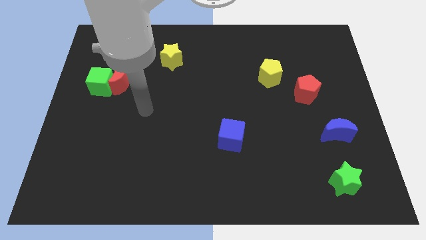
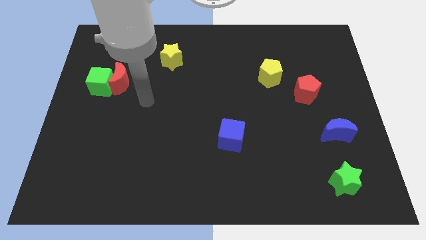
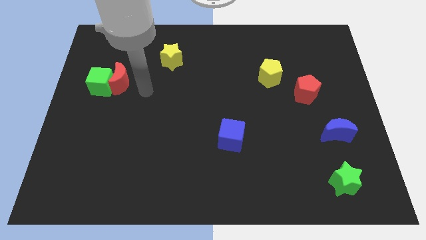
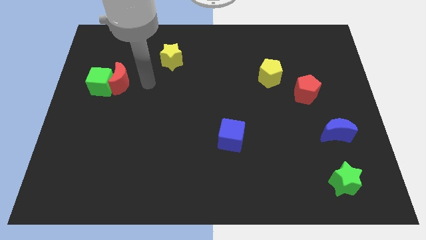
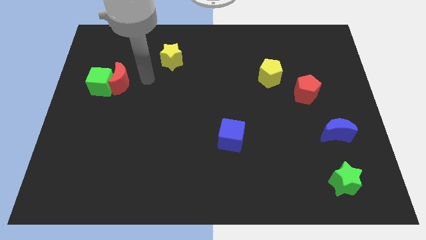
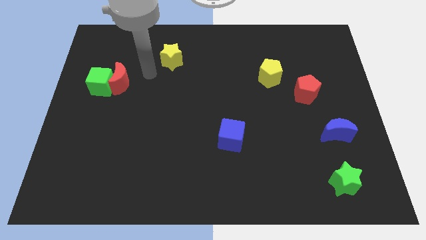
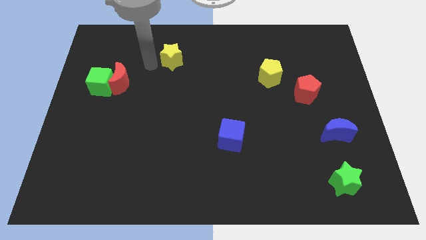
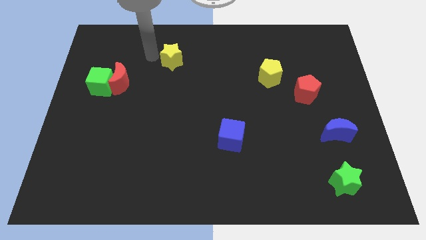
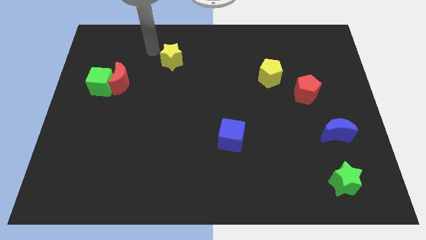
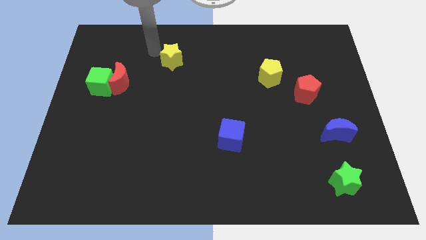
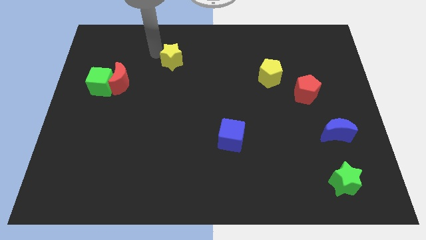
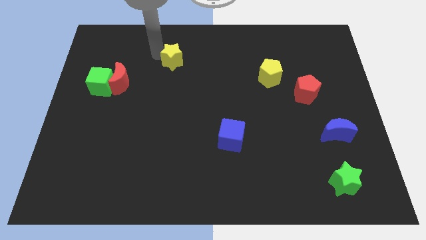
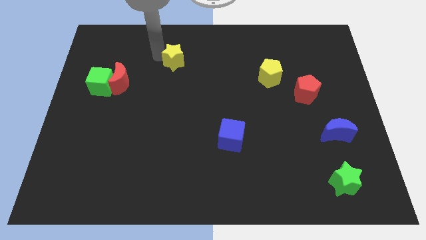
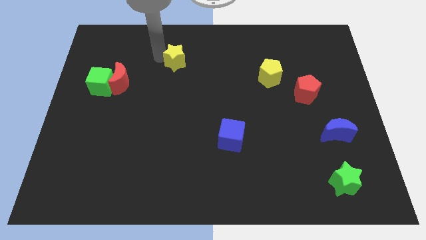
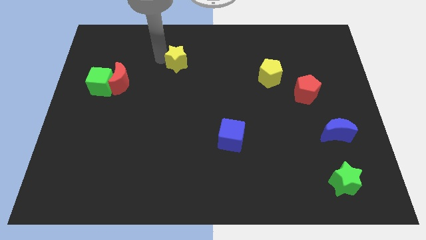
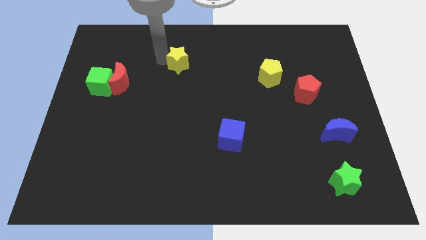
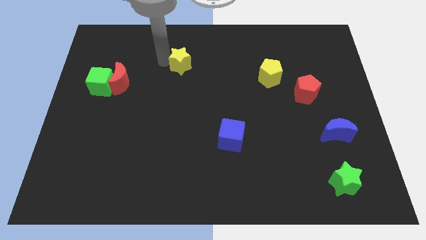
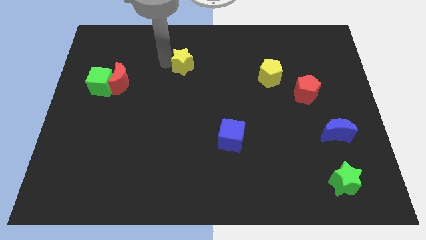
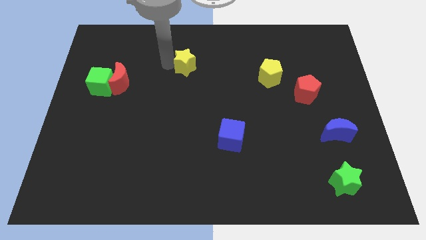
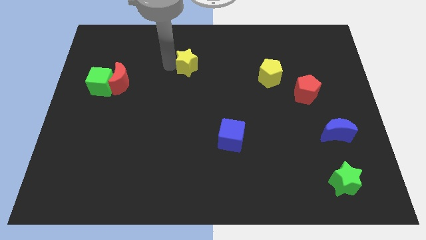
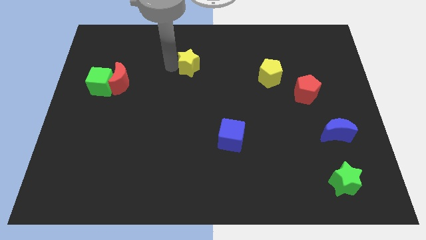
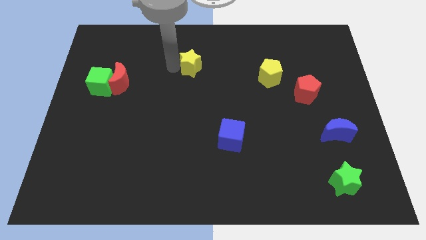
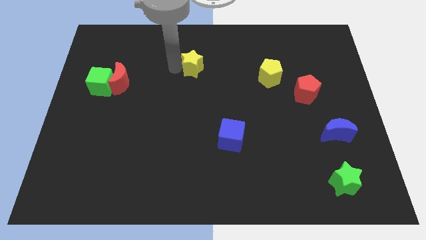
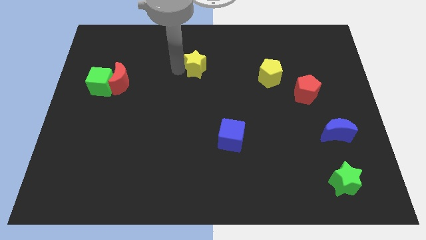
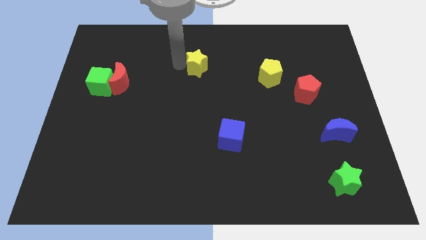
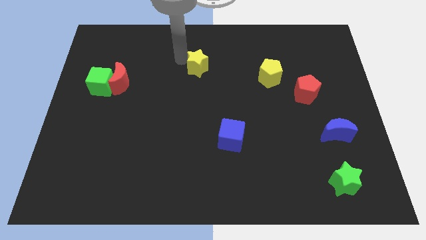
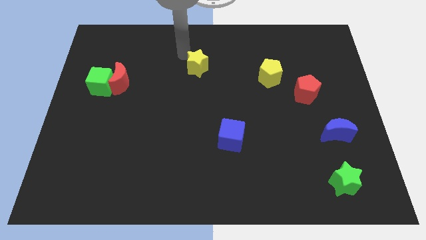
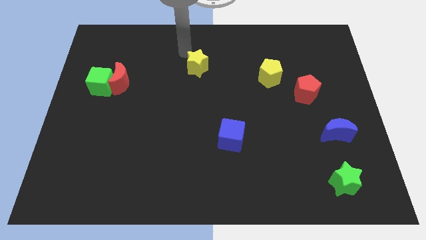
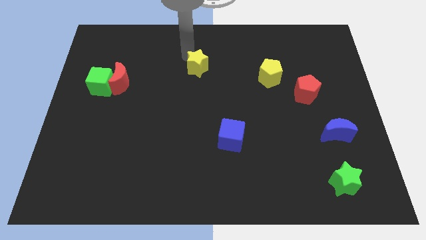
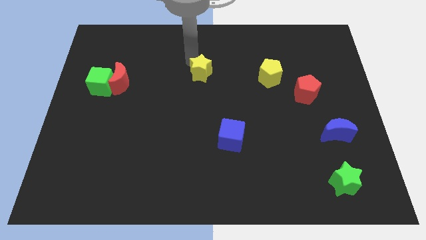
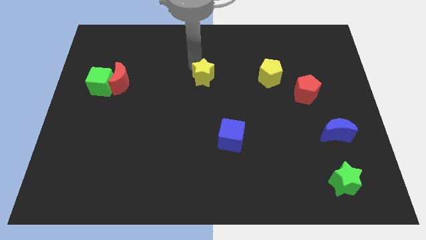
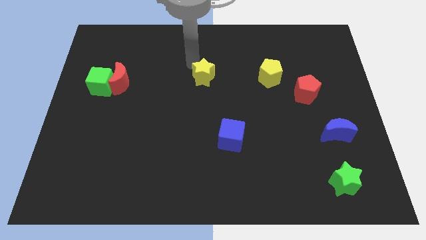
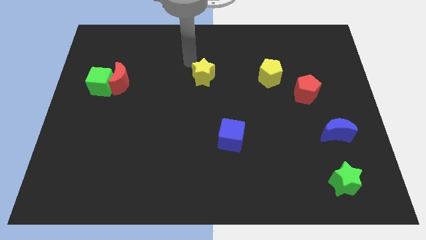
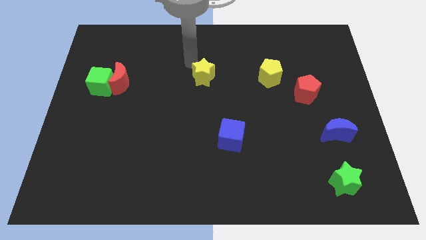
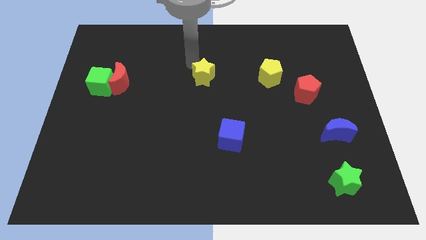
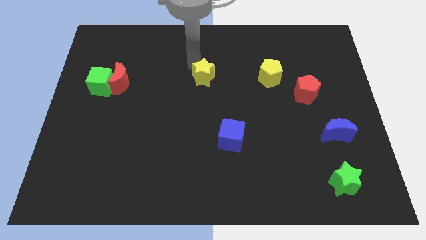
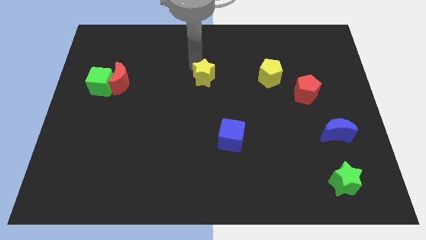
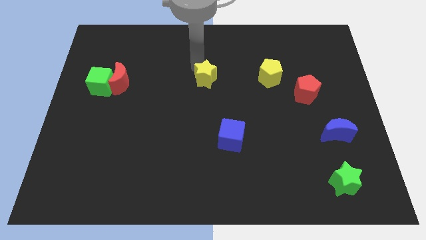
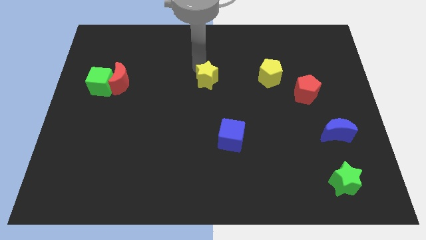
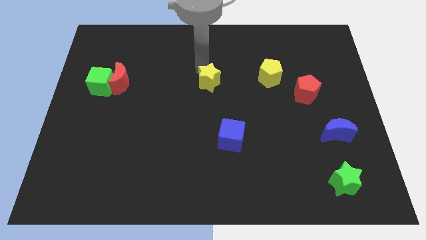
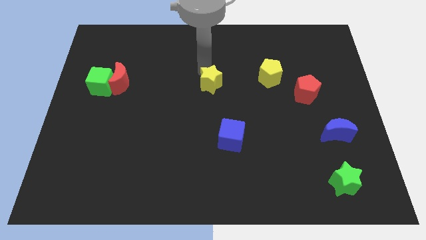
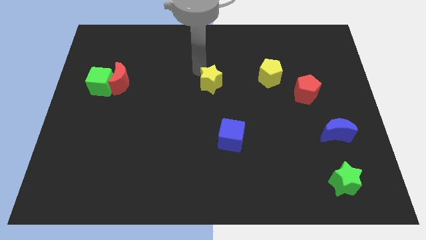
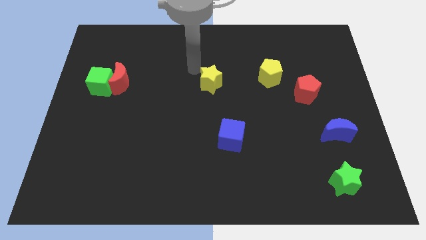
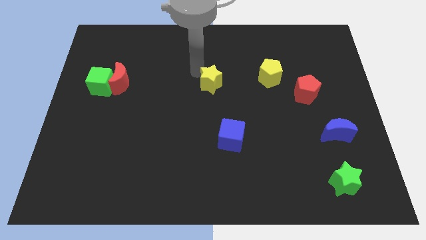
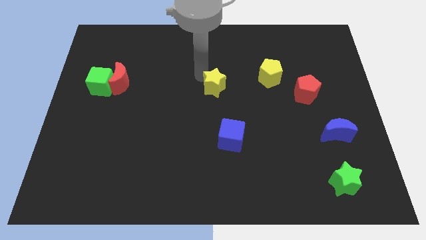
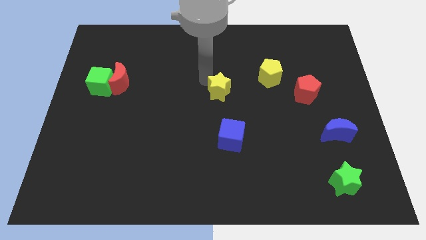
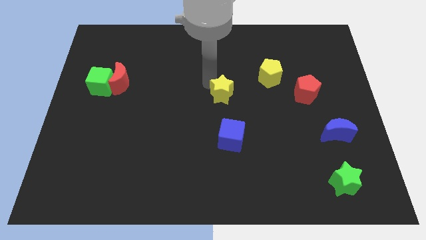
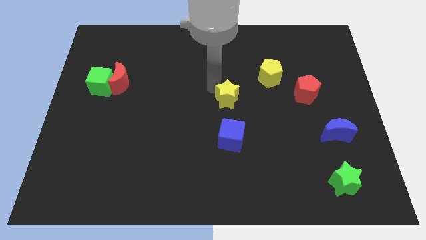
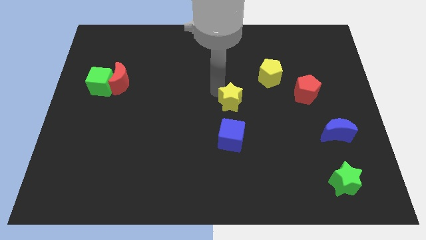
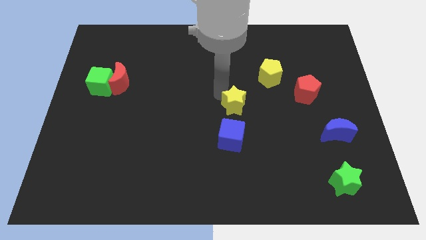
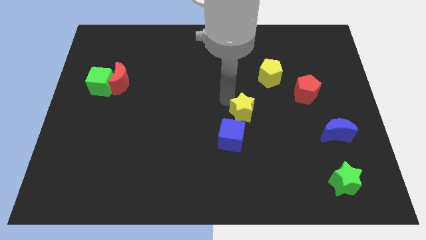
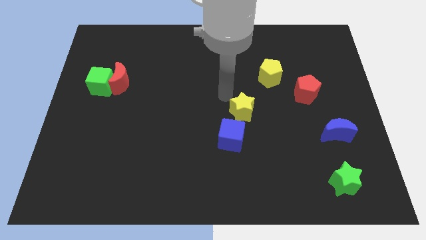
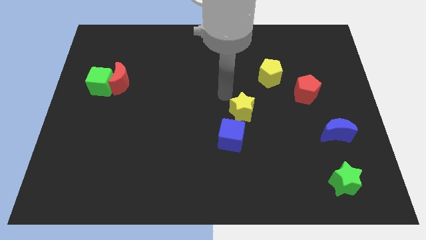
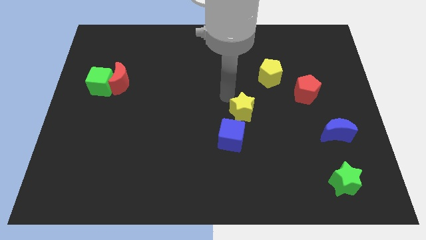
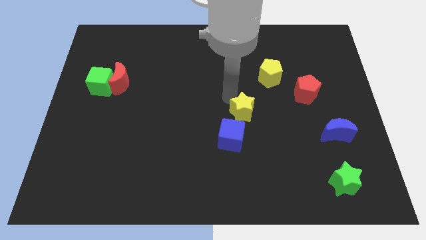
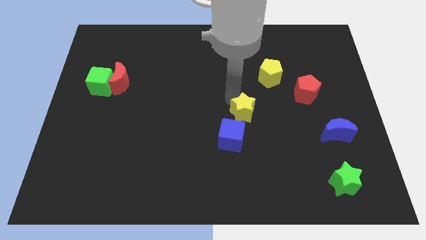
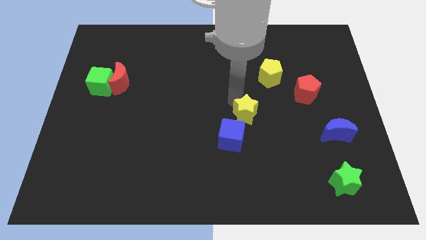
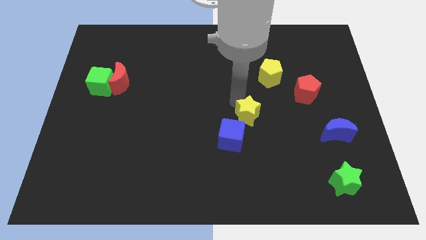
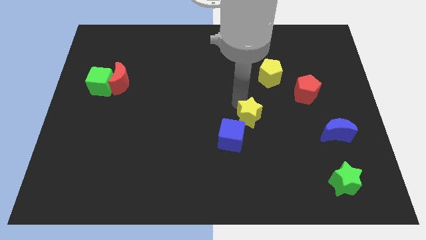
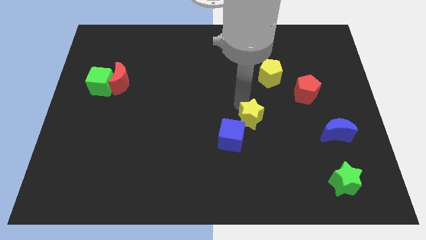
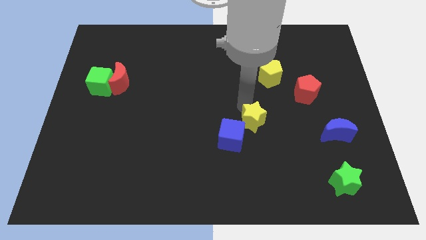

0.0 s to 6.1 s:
slide the yellow star to the right side of the blue cube
